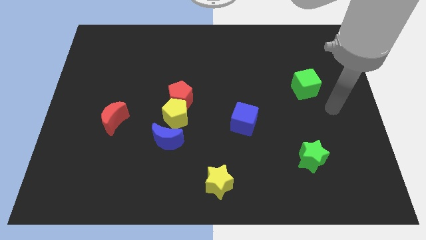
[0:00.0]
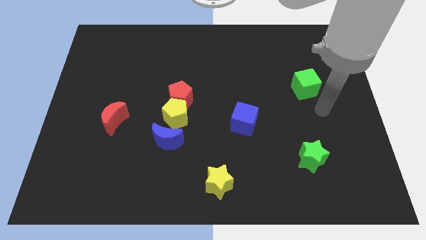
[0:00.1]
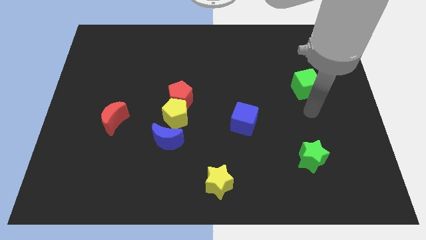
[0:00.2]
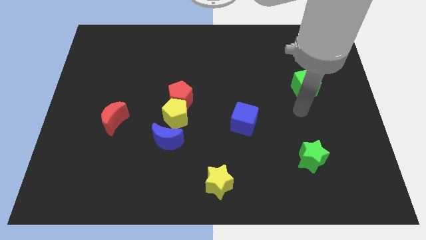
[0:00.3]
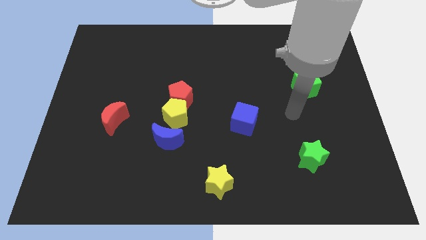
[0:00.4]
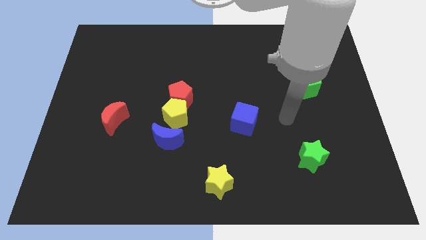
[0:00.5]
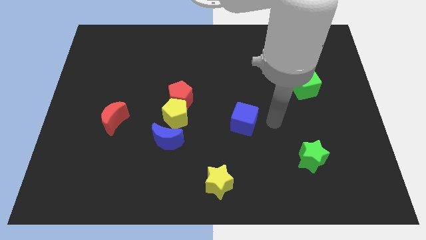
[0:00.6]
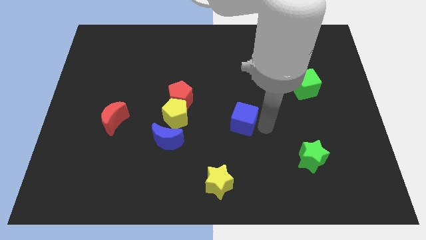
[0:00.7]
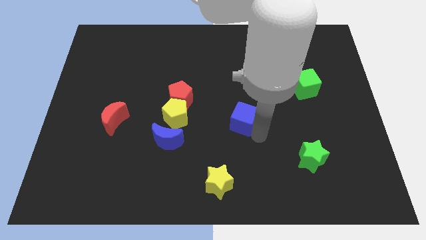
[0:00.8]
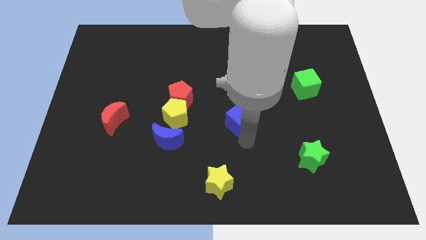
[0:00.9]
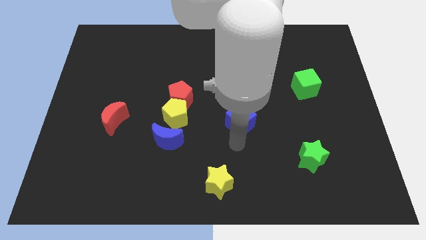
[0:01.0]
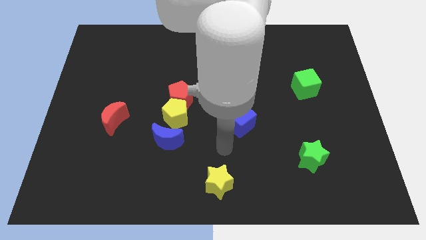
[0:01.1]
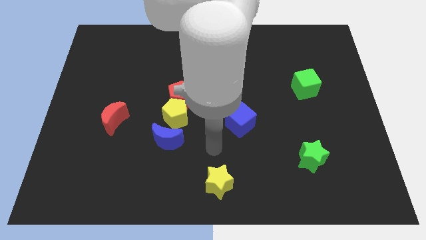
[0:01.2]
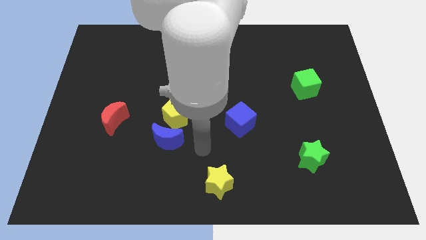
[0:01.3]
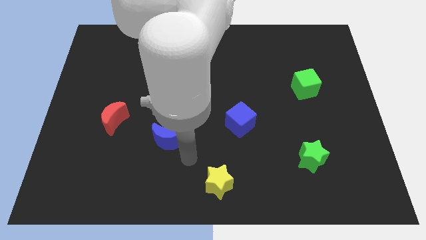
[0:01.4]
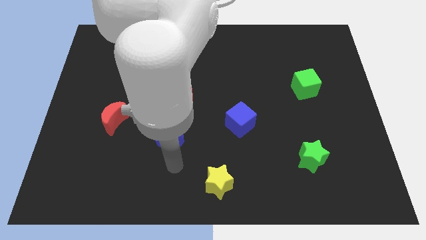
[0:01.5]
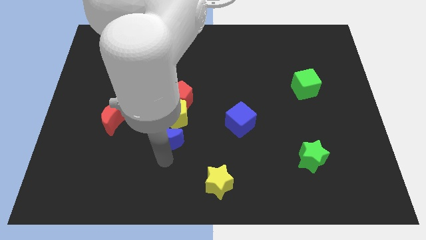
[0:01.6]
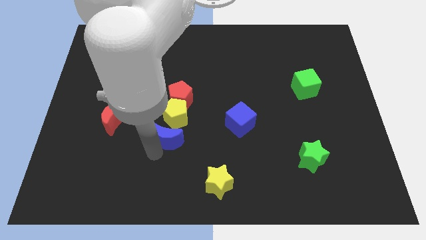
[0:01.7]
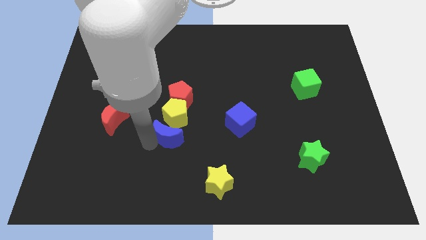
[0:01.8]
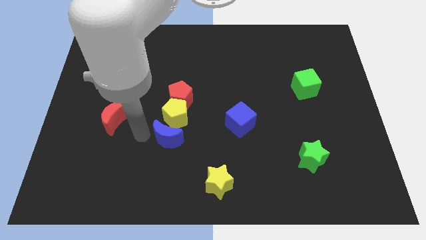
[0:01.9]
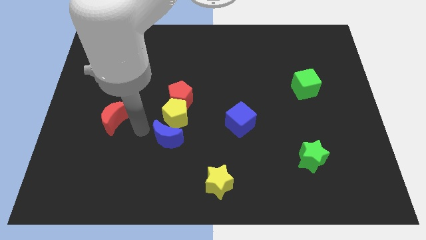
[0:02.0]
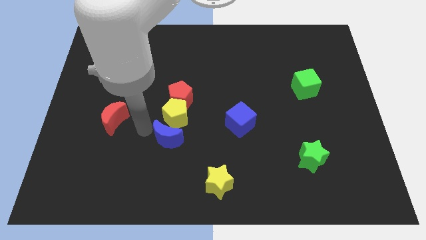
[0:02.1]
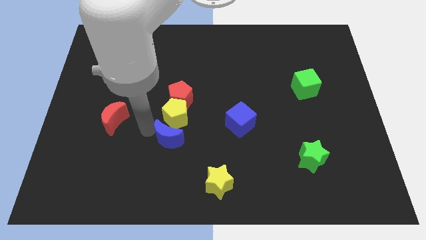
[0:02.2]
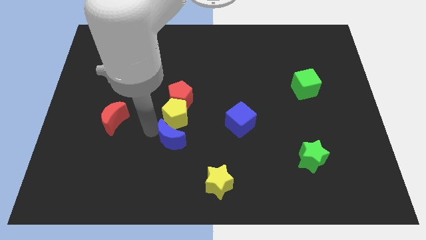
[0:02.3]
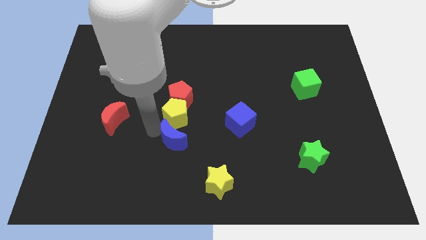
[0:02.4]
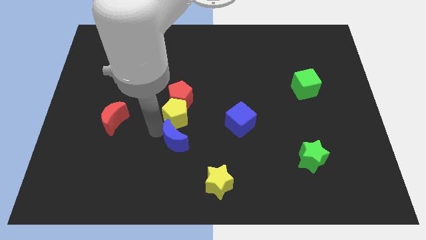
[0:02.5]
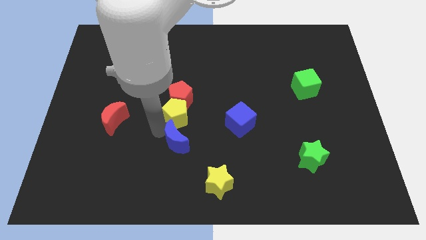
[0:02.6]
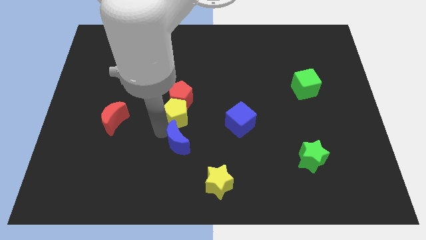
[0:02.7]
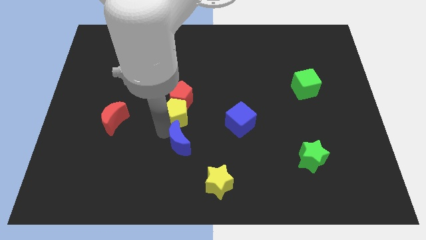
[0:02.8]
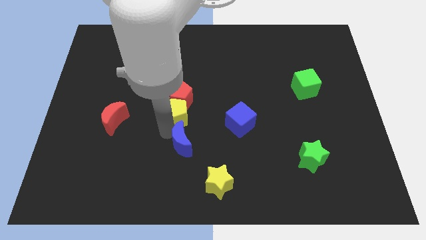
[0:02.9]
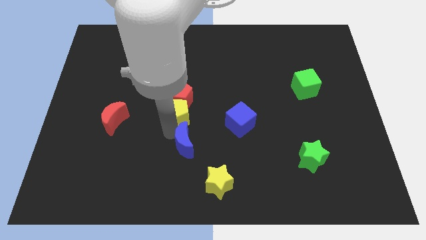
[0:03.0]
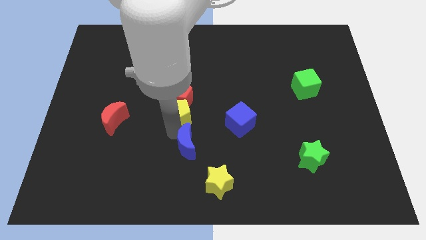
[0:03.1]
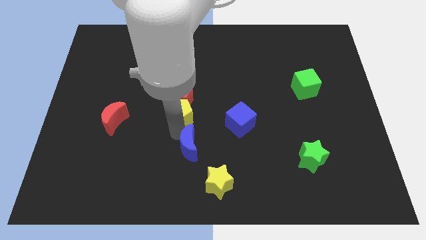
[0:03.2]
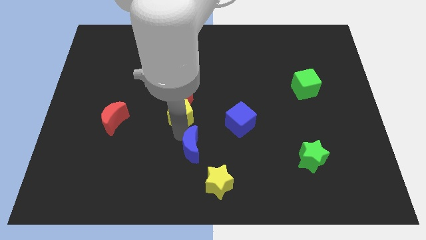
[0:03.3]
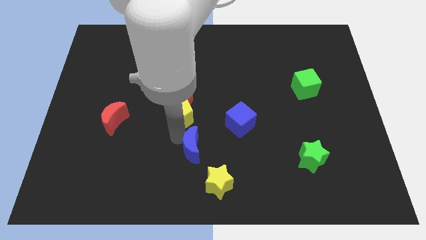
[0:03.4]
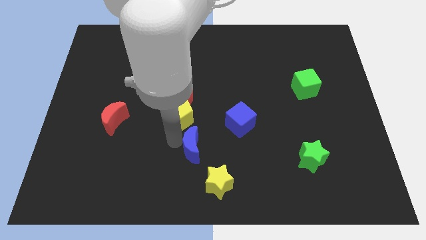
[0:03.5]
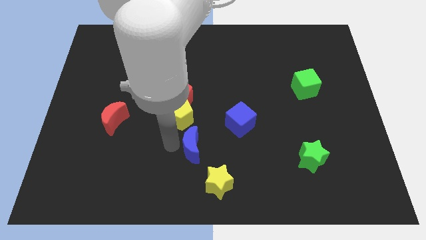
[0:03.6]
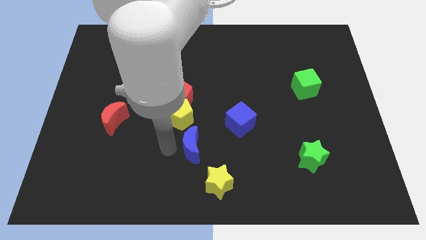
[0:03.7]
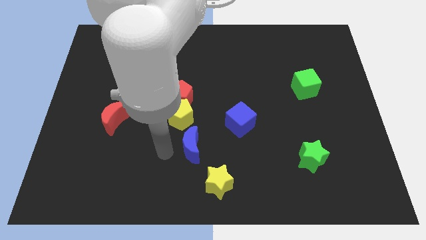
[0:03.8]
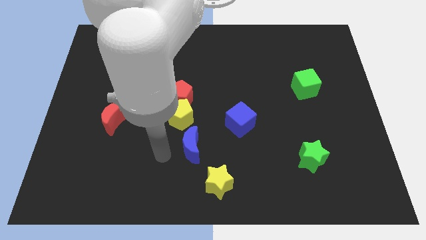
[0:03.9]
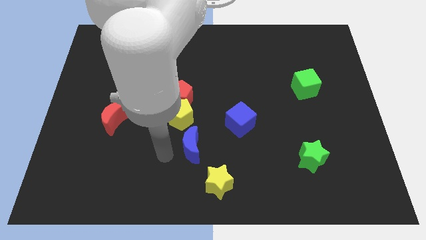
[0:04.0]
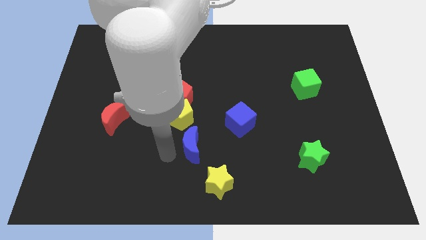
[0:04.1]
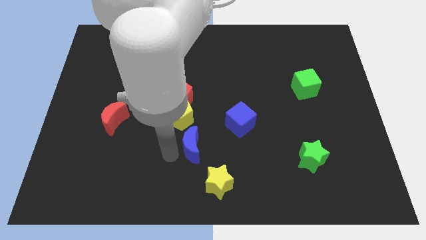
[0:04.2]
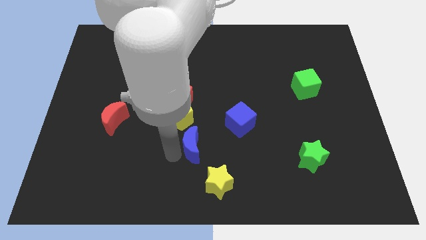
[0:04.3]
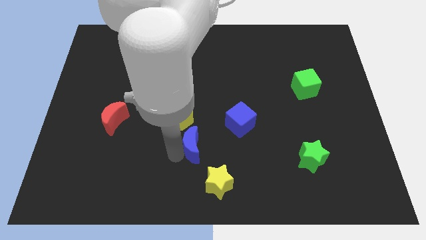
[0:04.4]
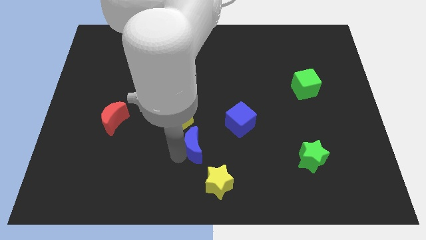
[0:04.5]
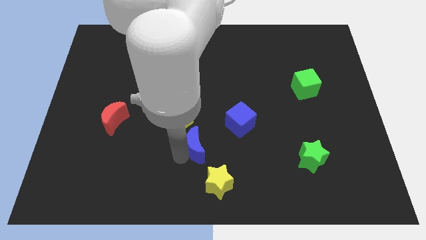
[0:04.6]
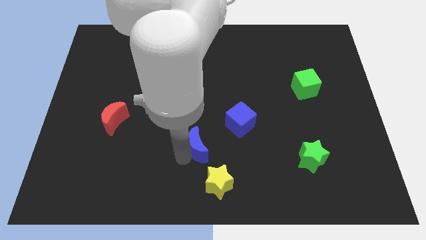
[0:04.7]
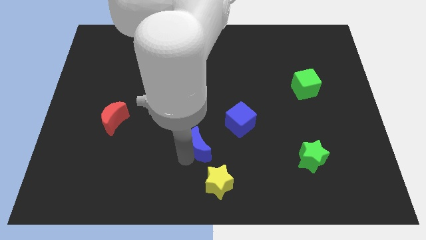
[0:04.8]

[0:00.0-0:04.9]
slightly slide the blue moon right

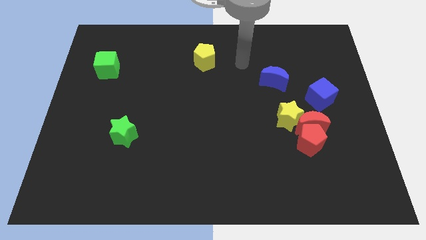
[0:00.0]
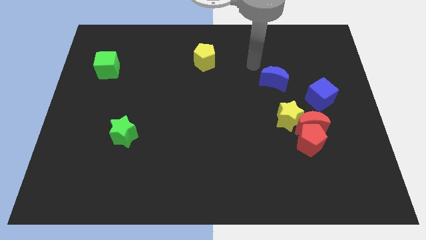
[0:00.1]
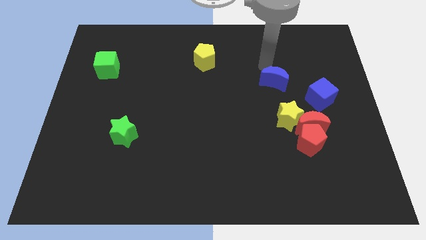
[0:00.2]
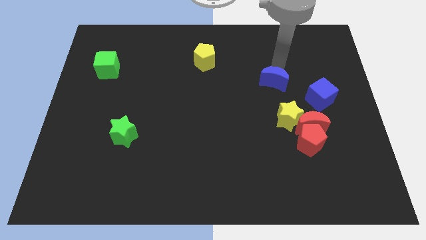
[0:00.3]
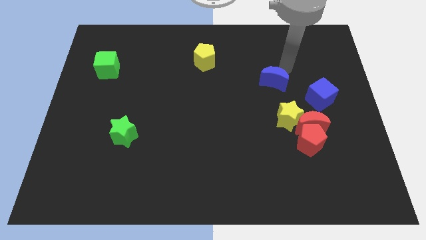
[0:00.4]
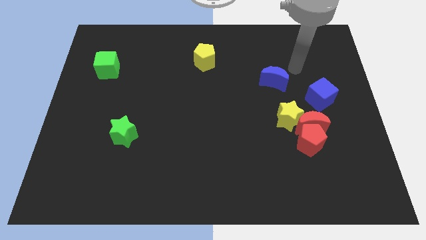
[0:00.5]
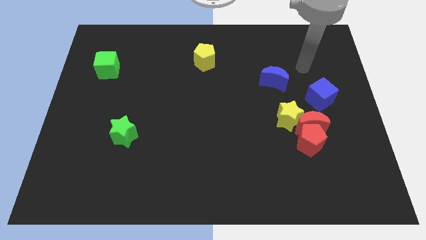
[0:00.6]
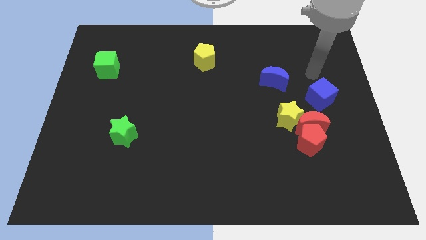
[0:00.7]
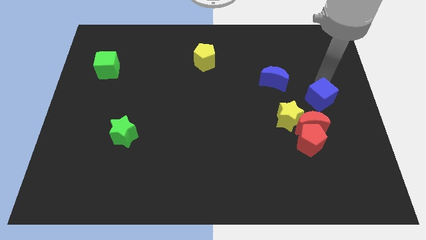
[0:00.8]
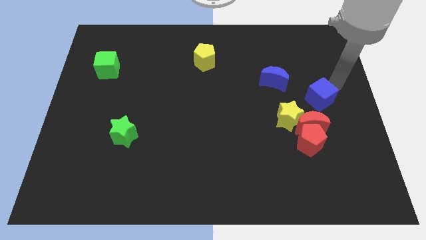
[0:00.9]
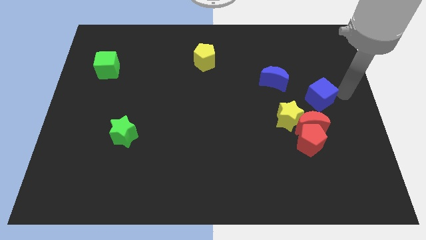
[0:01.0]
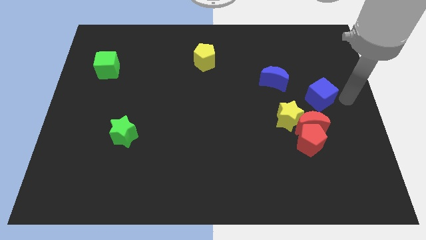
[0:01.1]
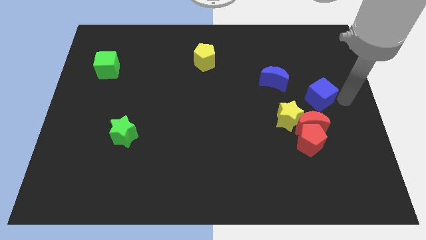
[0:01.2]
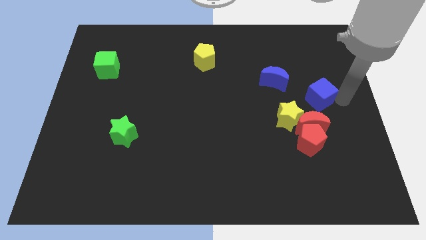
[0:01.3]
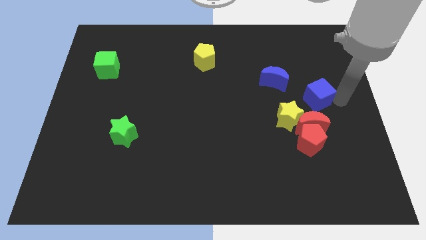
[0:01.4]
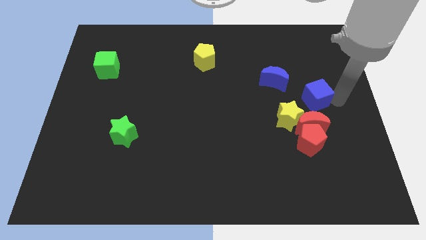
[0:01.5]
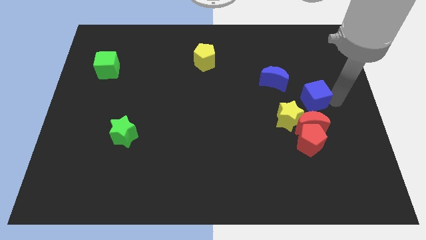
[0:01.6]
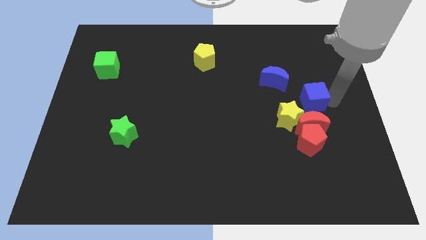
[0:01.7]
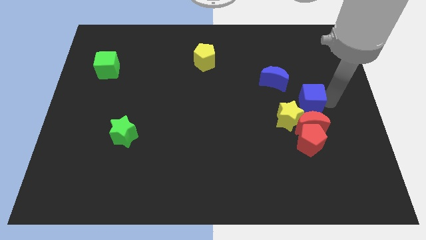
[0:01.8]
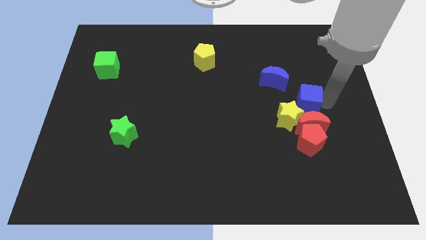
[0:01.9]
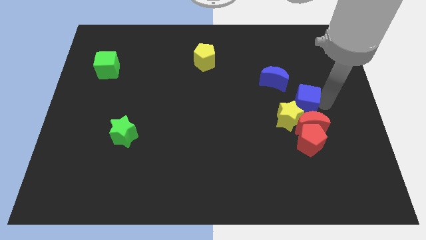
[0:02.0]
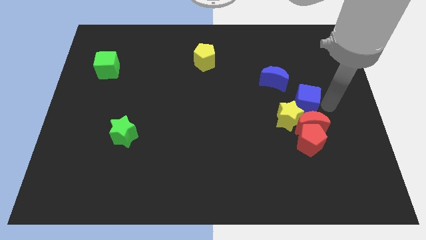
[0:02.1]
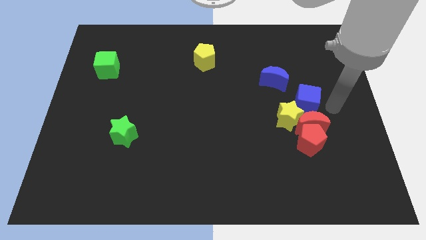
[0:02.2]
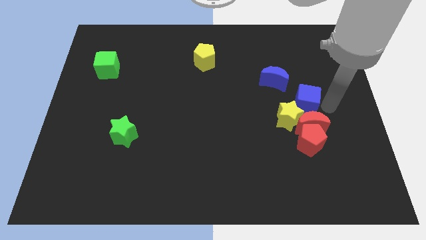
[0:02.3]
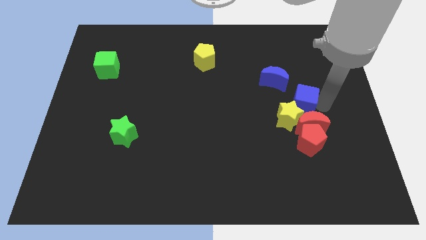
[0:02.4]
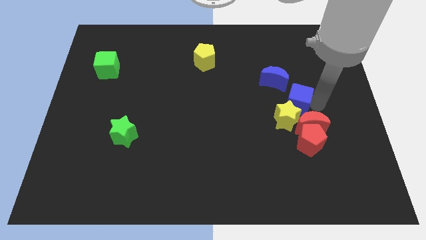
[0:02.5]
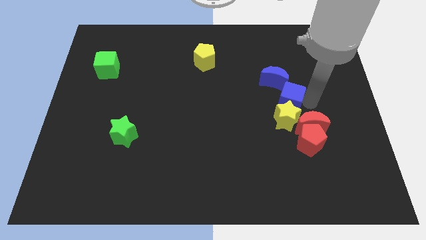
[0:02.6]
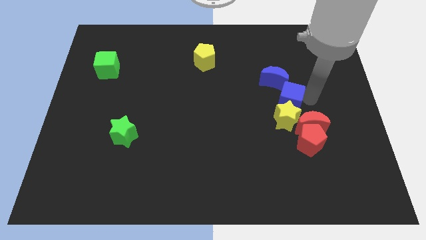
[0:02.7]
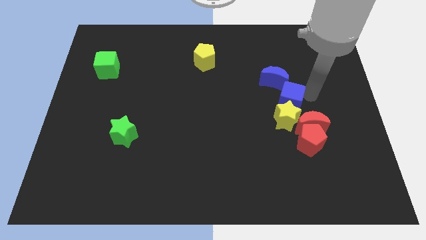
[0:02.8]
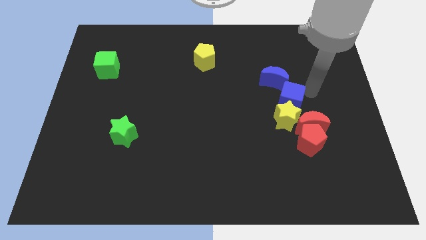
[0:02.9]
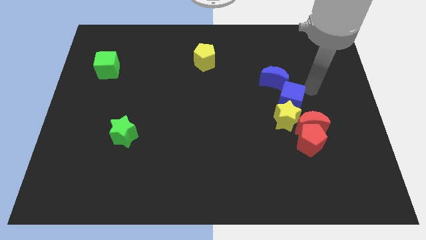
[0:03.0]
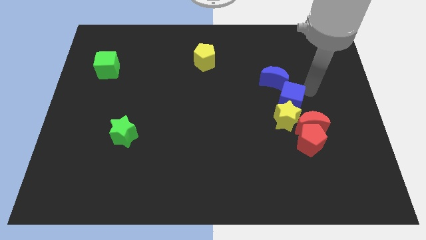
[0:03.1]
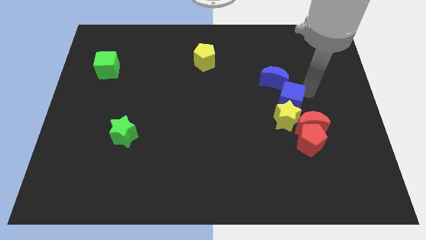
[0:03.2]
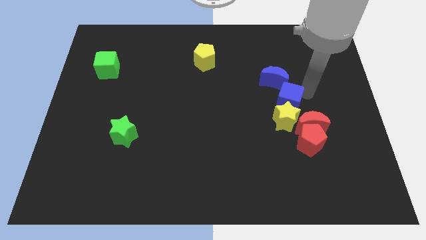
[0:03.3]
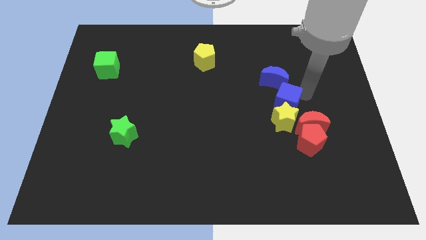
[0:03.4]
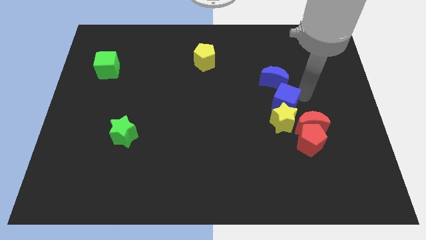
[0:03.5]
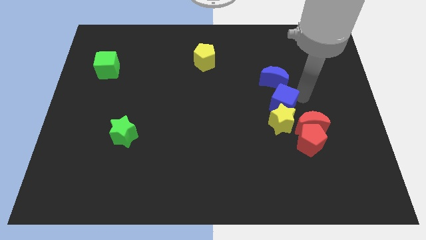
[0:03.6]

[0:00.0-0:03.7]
slightly slide the blue cube down and then to the left
